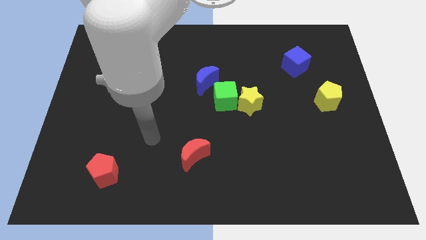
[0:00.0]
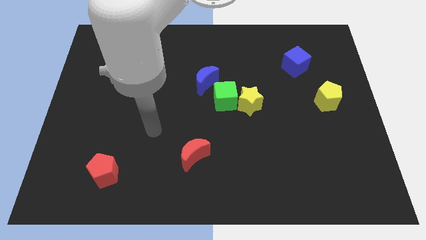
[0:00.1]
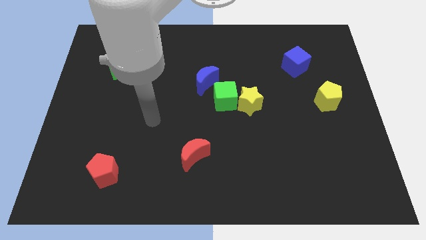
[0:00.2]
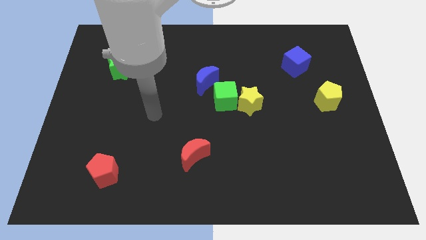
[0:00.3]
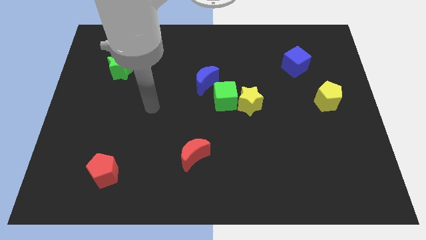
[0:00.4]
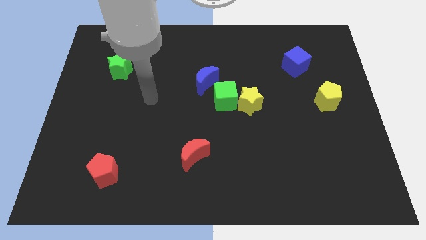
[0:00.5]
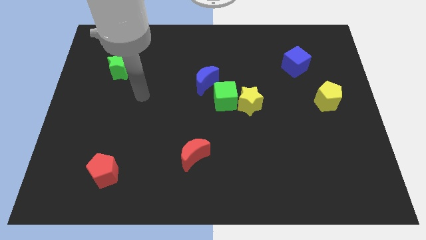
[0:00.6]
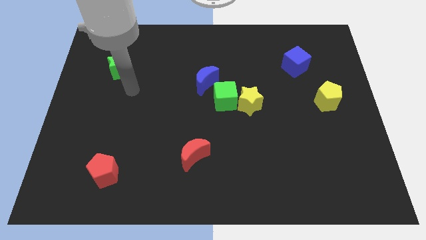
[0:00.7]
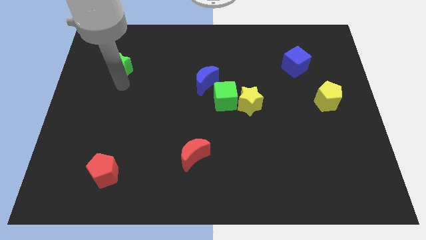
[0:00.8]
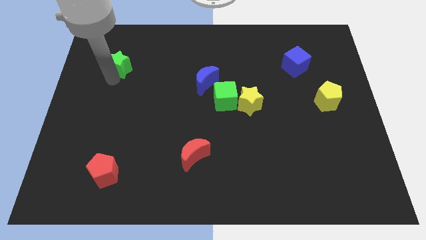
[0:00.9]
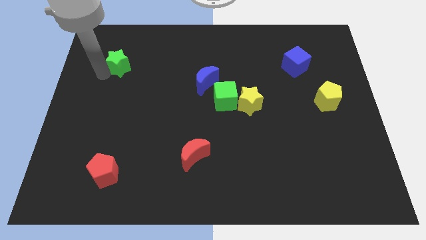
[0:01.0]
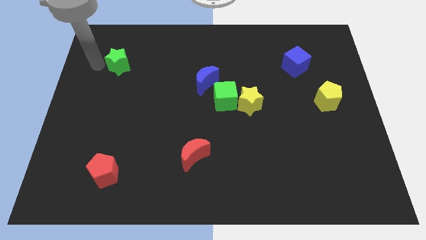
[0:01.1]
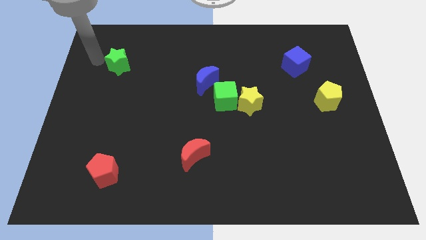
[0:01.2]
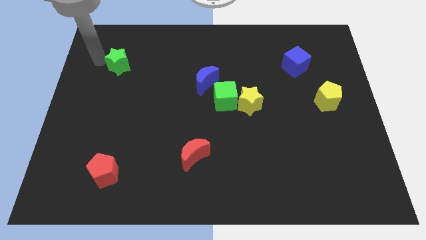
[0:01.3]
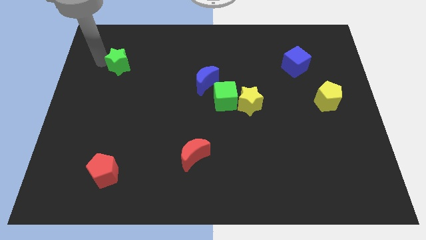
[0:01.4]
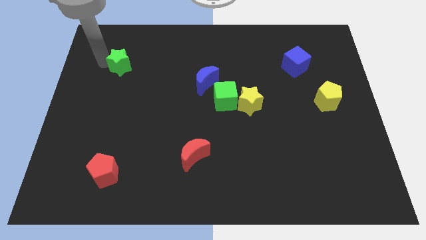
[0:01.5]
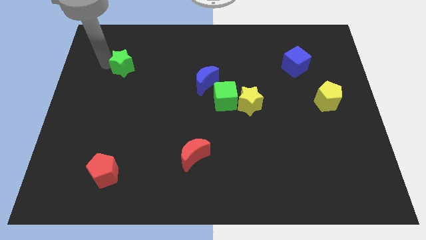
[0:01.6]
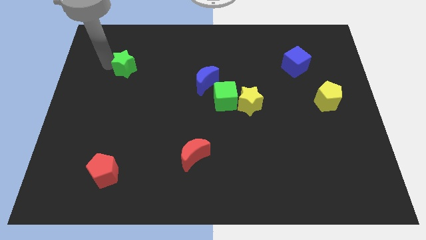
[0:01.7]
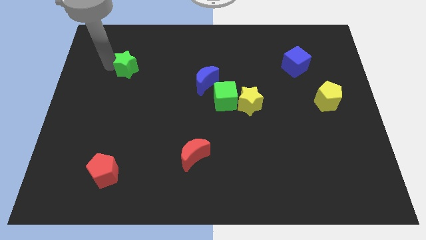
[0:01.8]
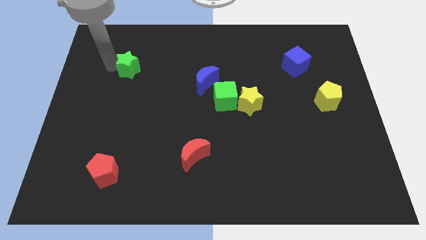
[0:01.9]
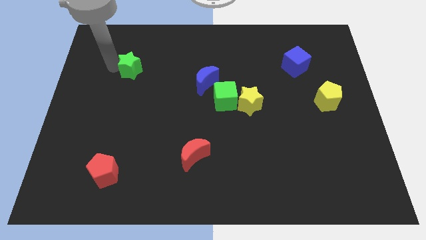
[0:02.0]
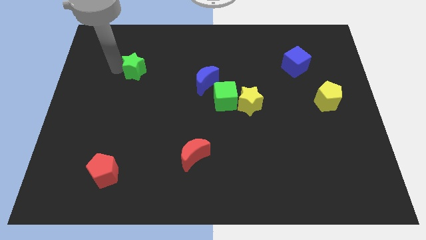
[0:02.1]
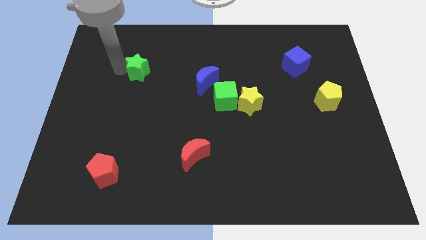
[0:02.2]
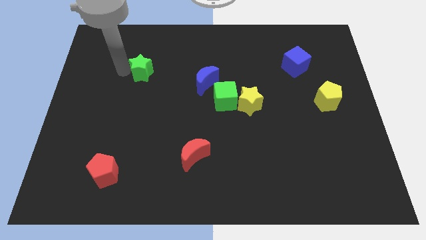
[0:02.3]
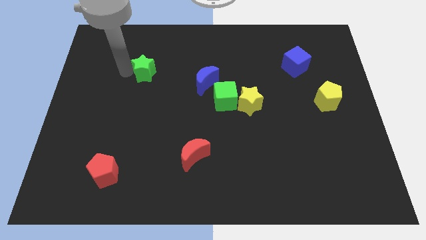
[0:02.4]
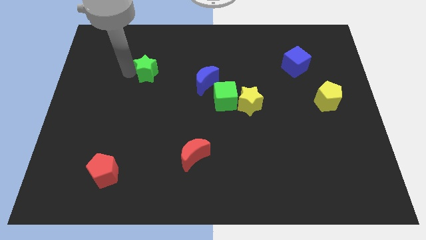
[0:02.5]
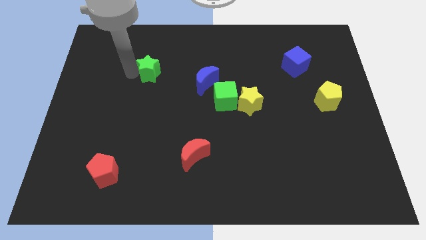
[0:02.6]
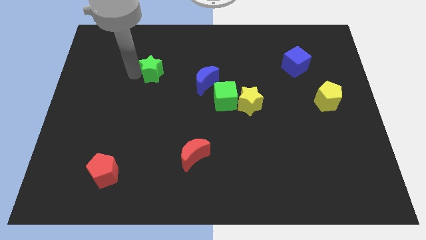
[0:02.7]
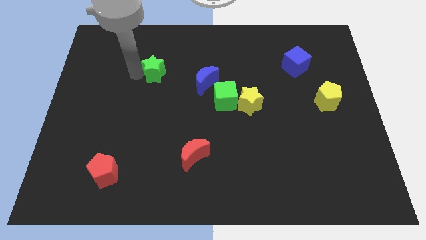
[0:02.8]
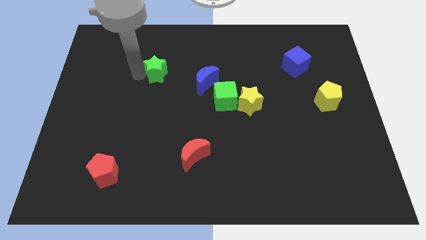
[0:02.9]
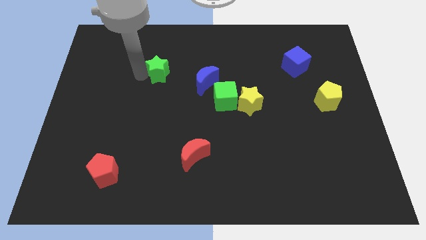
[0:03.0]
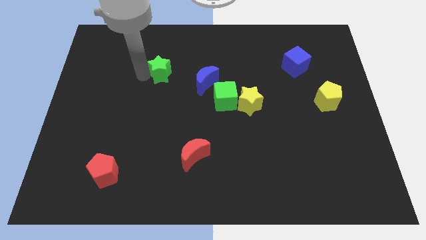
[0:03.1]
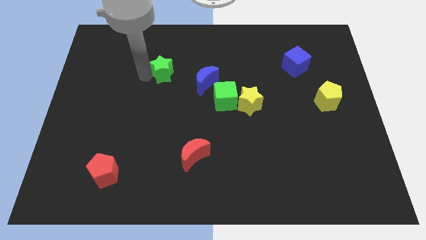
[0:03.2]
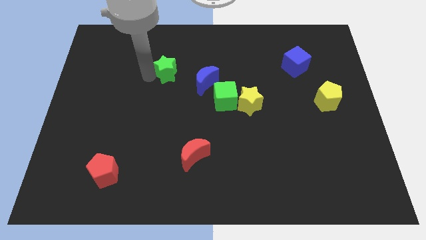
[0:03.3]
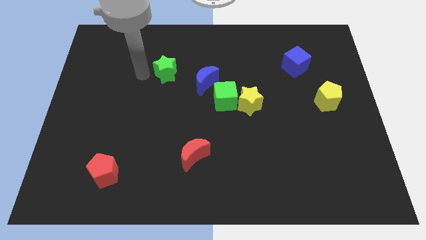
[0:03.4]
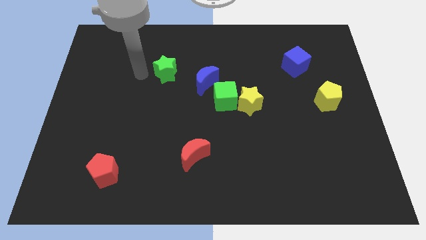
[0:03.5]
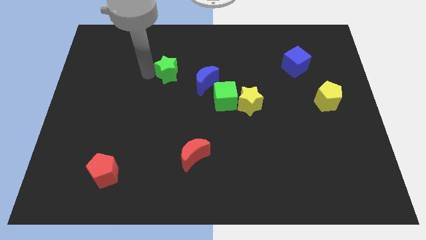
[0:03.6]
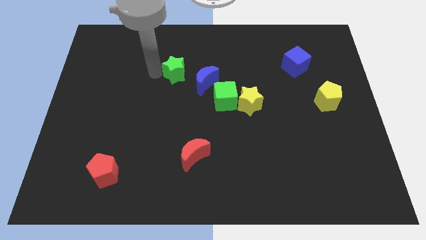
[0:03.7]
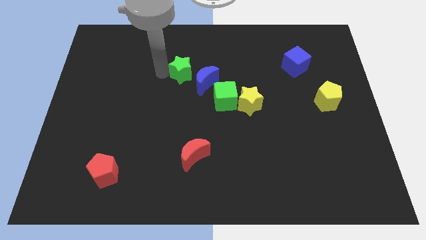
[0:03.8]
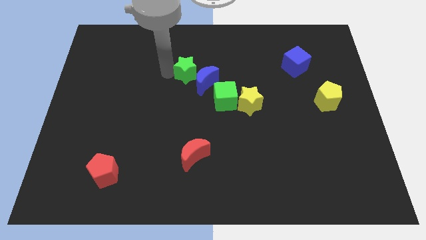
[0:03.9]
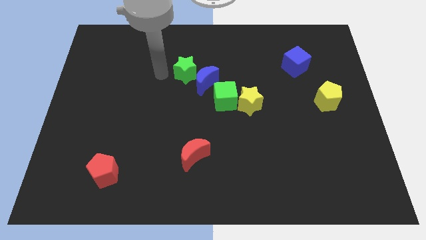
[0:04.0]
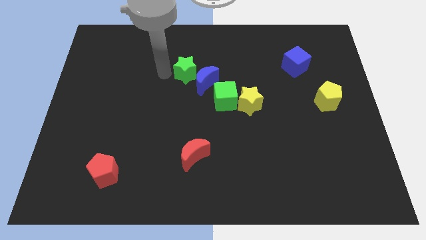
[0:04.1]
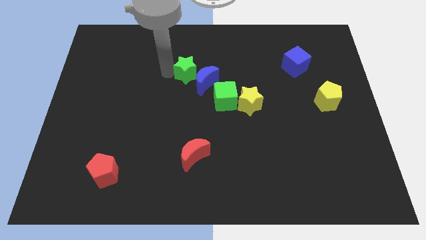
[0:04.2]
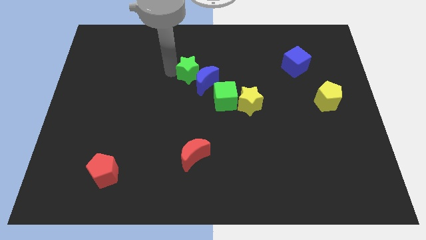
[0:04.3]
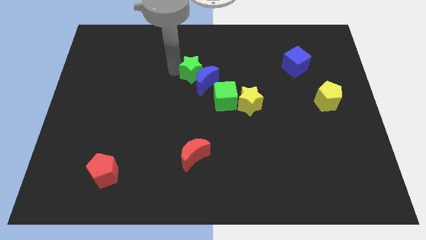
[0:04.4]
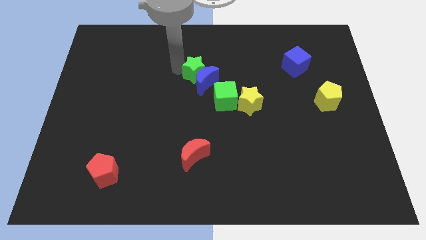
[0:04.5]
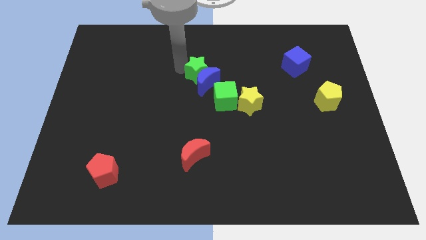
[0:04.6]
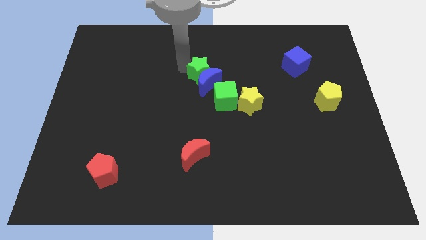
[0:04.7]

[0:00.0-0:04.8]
slide the green star right

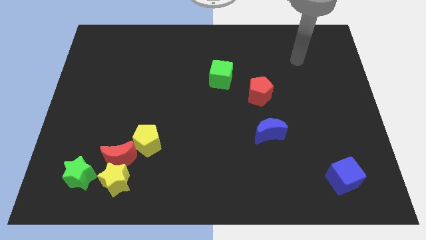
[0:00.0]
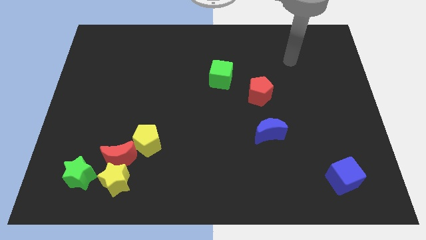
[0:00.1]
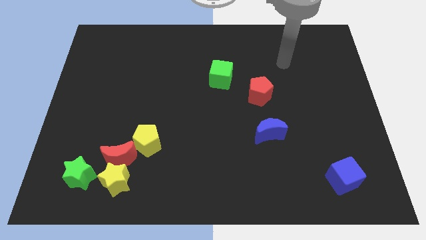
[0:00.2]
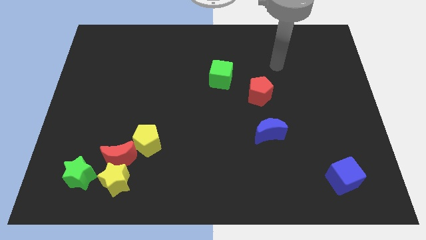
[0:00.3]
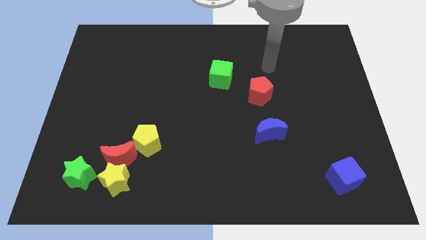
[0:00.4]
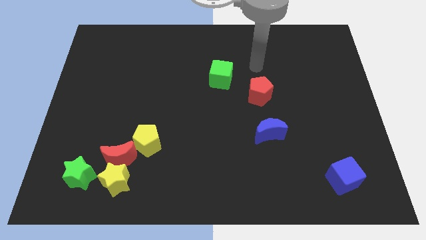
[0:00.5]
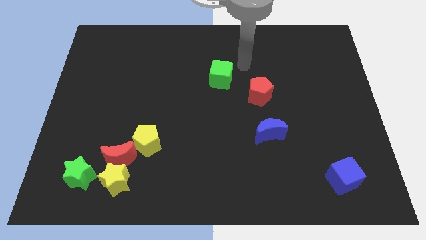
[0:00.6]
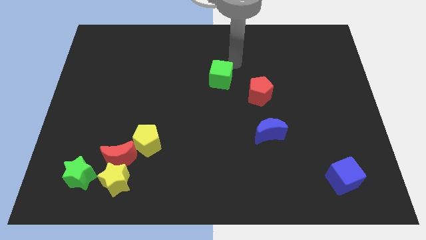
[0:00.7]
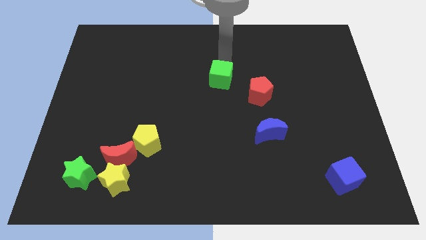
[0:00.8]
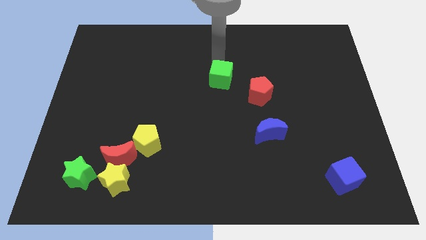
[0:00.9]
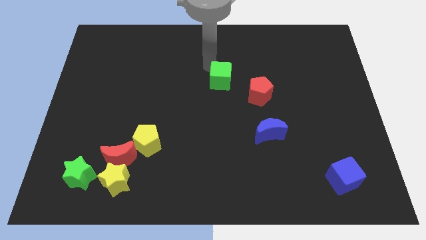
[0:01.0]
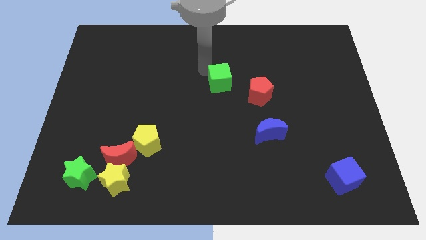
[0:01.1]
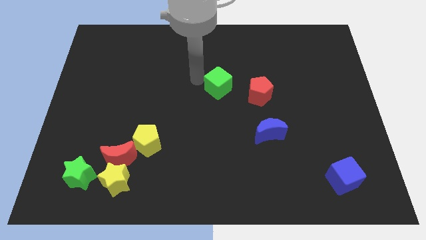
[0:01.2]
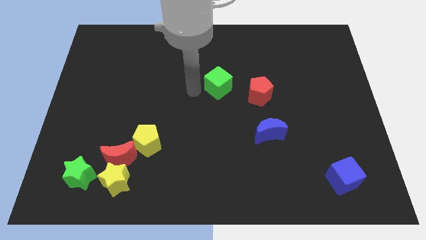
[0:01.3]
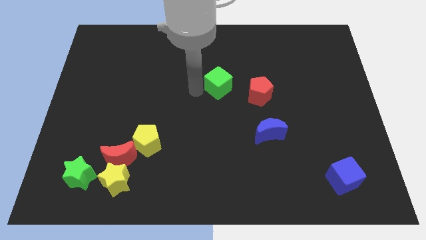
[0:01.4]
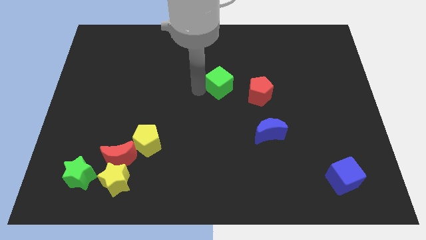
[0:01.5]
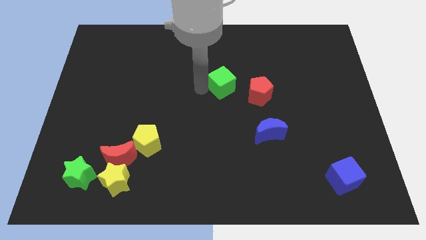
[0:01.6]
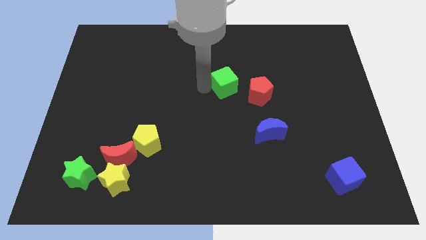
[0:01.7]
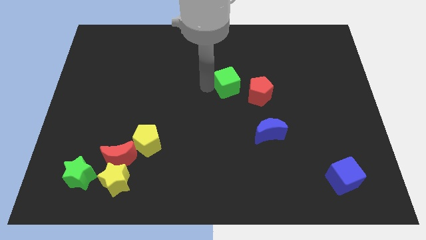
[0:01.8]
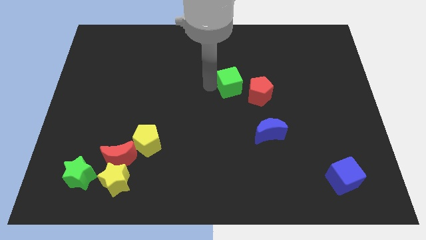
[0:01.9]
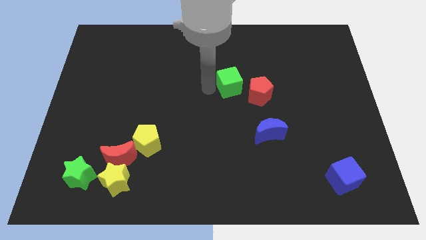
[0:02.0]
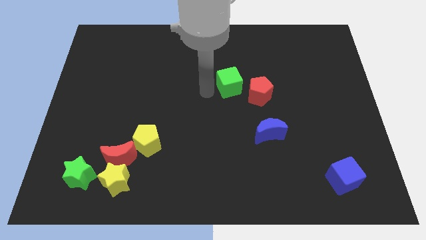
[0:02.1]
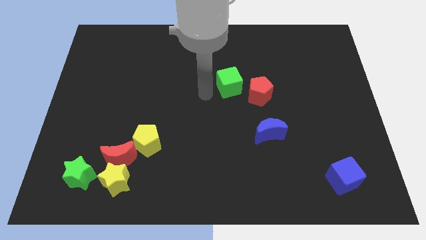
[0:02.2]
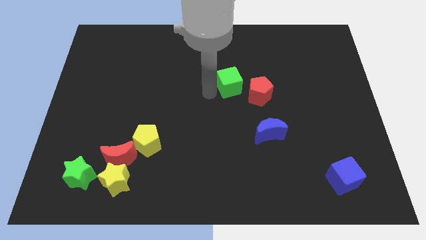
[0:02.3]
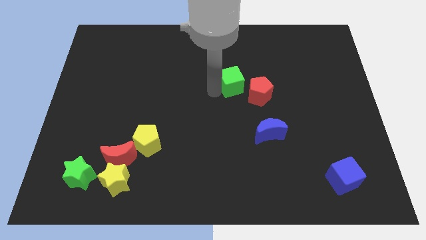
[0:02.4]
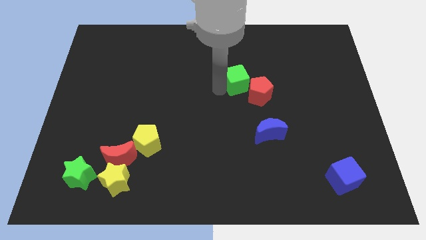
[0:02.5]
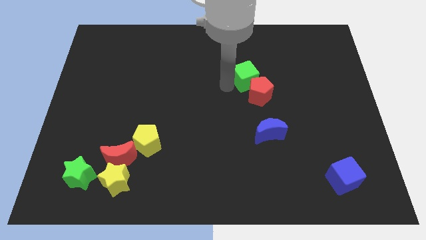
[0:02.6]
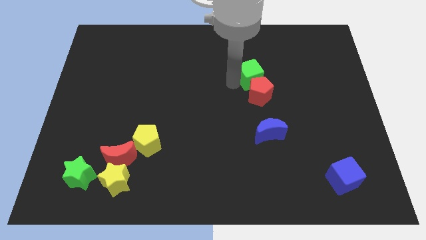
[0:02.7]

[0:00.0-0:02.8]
push the green cube somewhat right

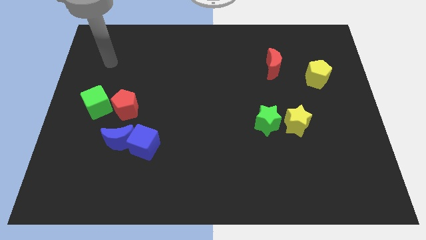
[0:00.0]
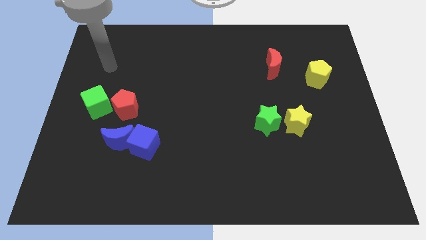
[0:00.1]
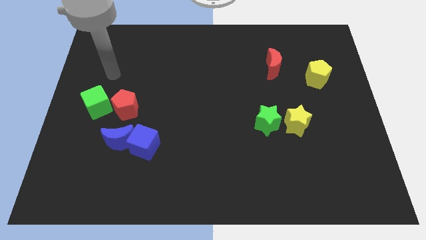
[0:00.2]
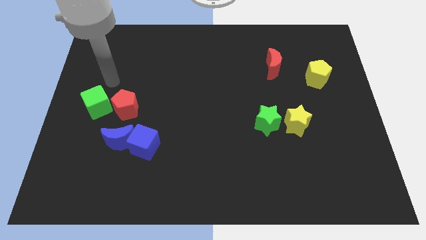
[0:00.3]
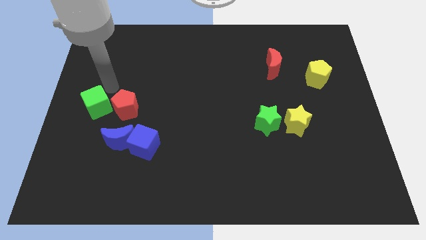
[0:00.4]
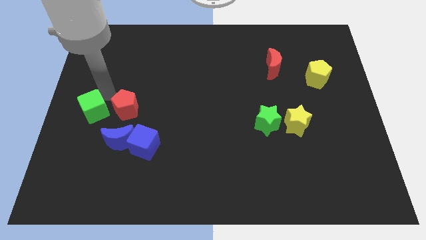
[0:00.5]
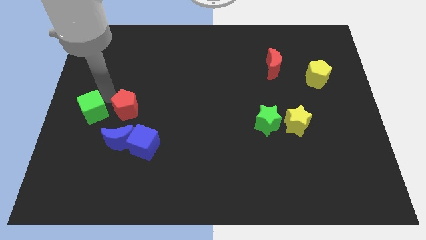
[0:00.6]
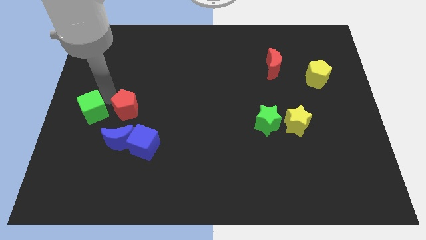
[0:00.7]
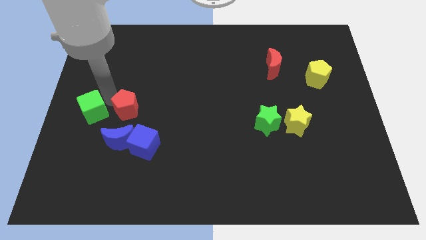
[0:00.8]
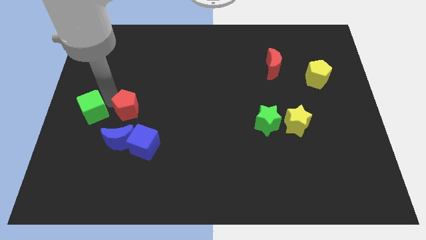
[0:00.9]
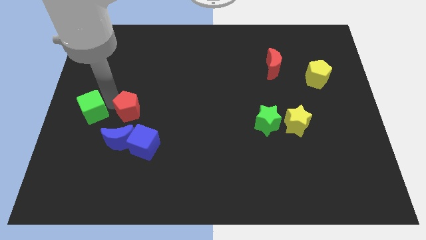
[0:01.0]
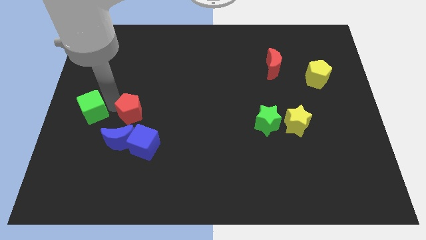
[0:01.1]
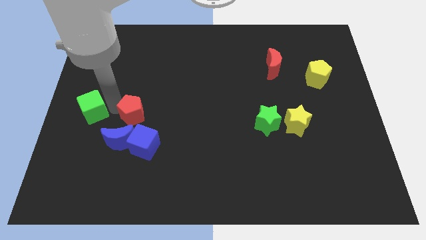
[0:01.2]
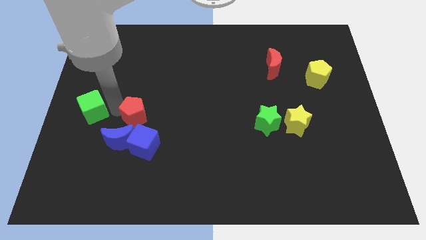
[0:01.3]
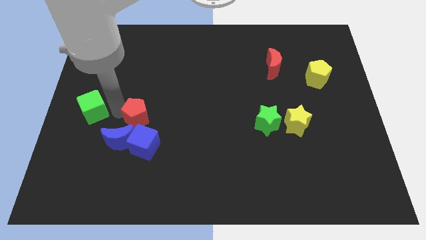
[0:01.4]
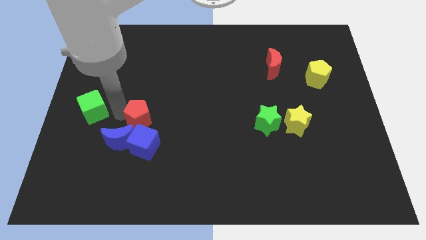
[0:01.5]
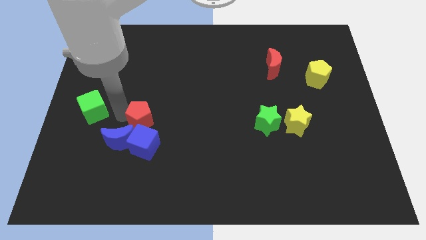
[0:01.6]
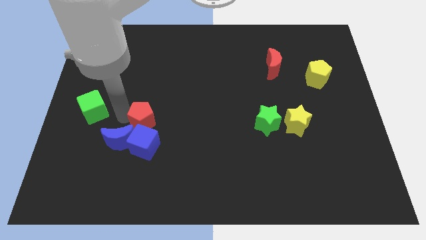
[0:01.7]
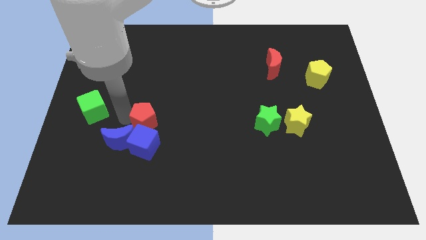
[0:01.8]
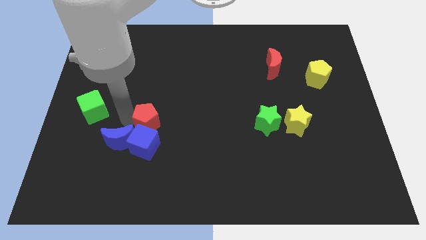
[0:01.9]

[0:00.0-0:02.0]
slightly slide the red pentagon diagonally down and right
